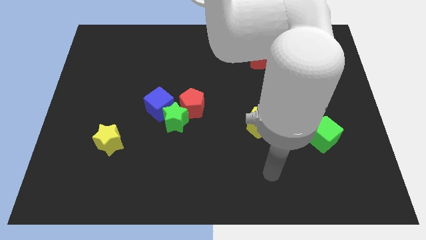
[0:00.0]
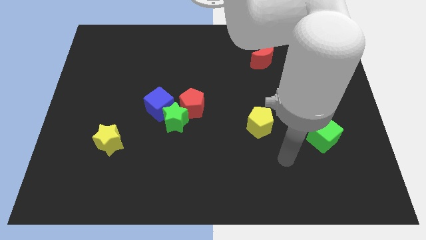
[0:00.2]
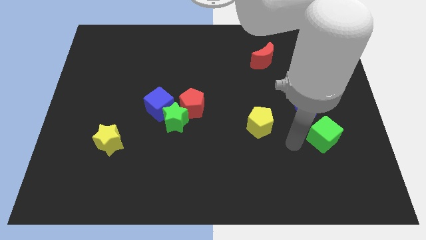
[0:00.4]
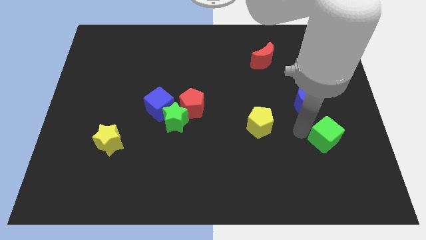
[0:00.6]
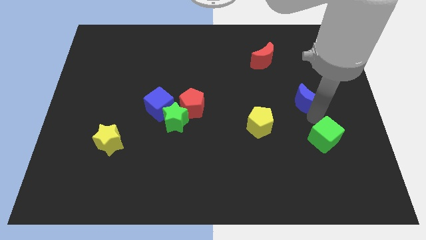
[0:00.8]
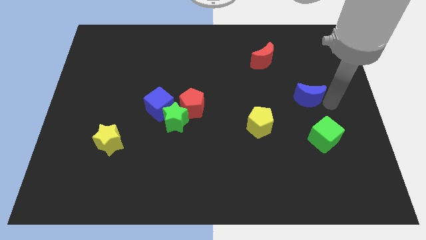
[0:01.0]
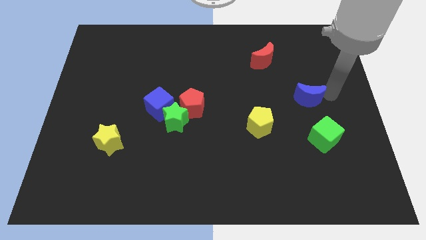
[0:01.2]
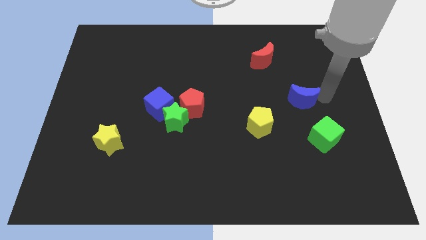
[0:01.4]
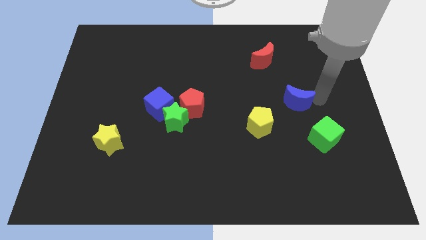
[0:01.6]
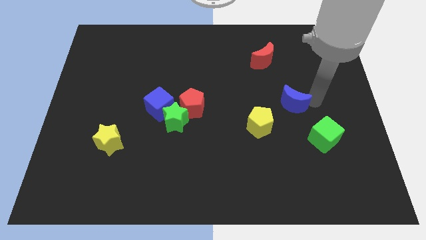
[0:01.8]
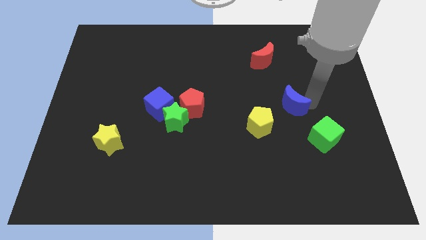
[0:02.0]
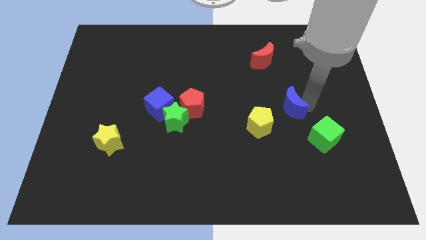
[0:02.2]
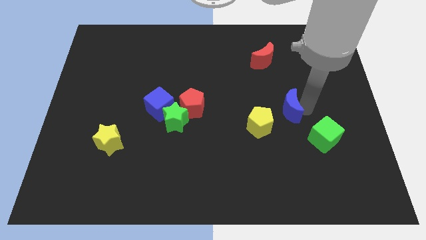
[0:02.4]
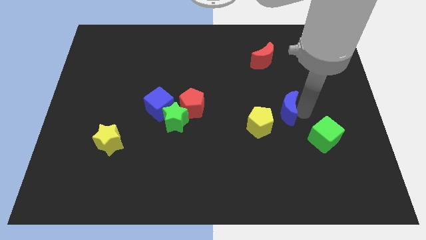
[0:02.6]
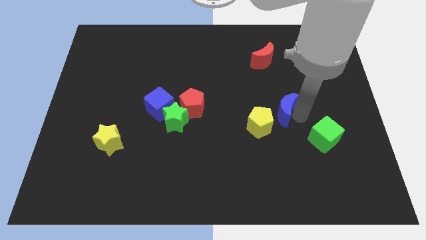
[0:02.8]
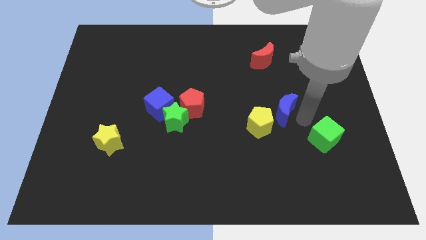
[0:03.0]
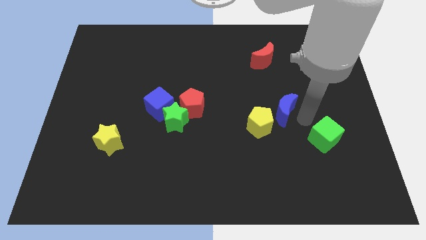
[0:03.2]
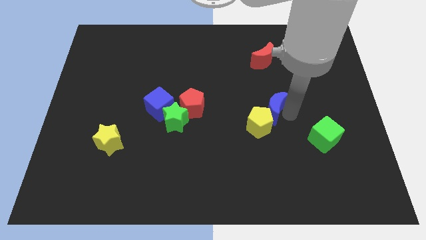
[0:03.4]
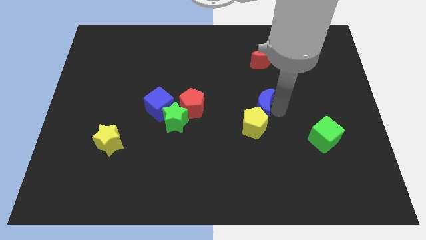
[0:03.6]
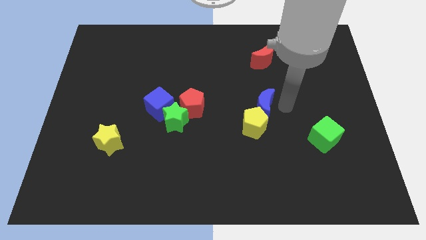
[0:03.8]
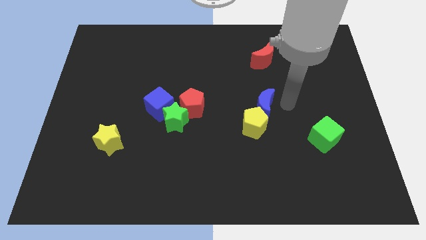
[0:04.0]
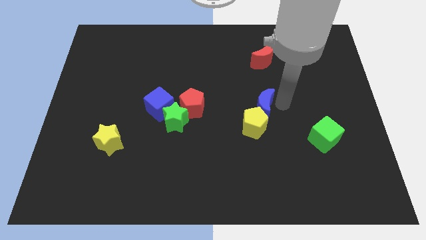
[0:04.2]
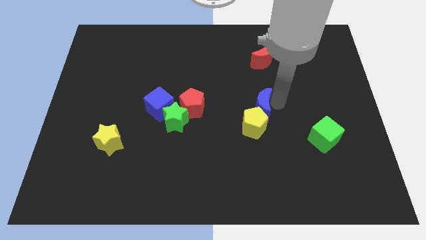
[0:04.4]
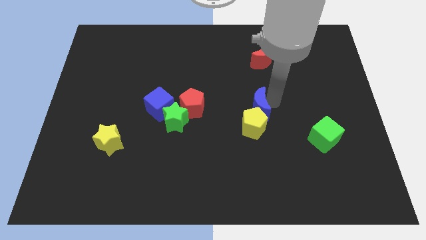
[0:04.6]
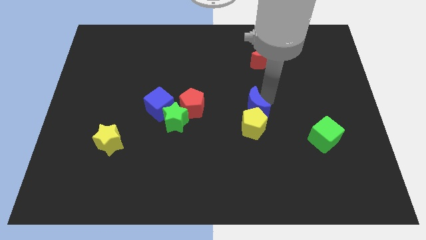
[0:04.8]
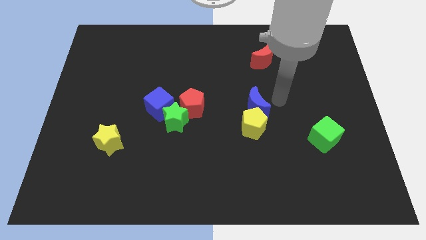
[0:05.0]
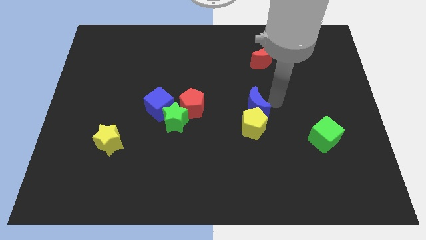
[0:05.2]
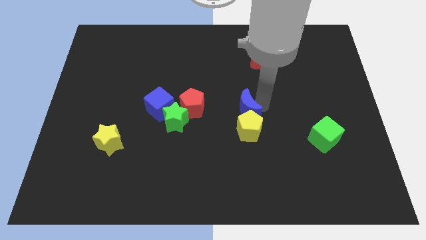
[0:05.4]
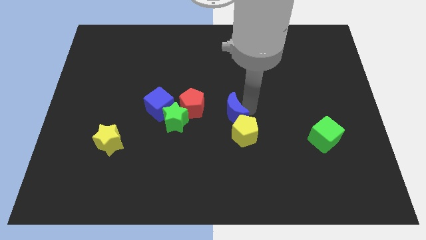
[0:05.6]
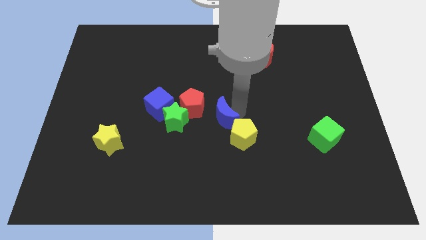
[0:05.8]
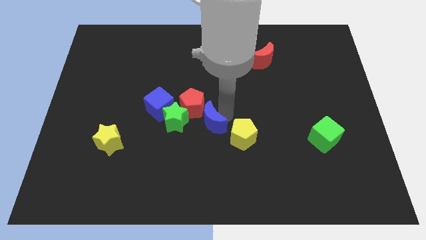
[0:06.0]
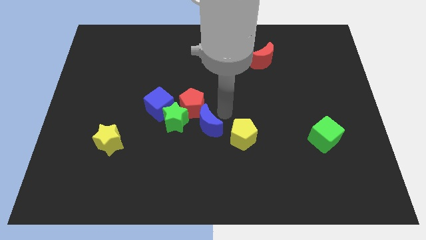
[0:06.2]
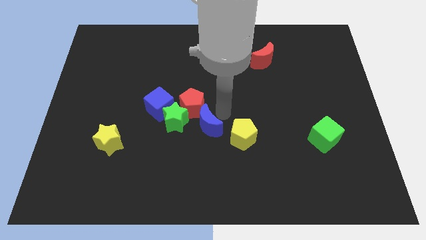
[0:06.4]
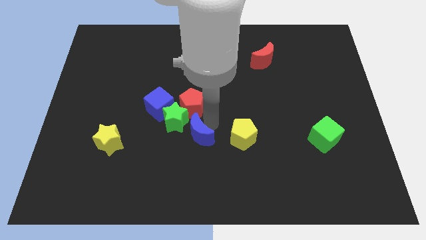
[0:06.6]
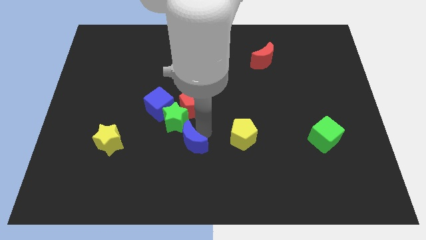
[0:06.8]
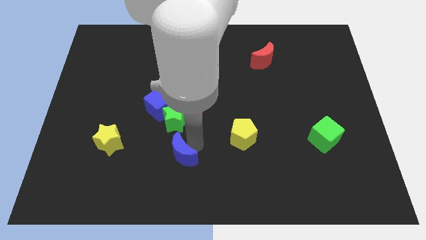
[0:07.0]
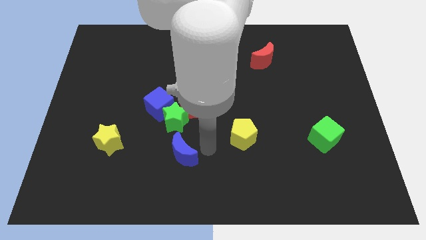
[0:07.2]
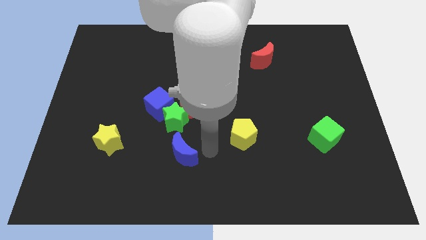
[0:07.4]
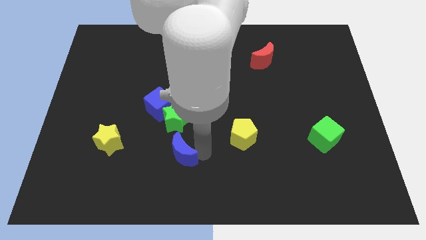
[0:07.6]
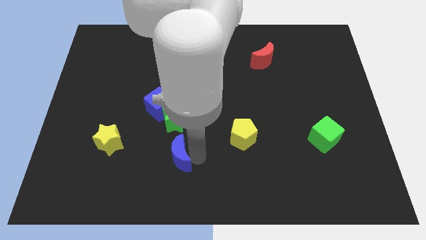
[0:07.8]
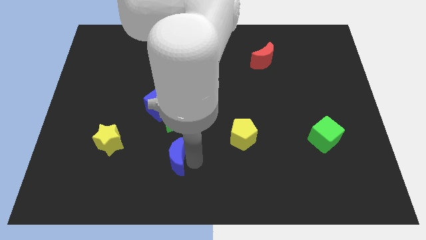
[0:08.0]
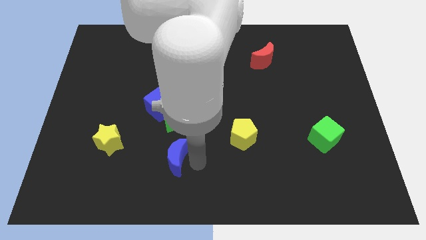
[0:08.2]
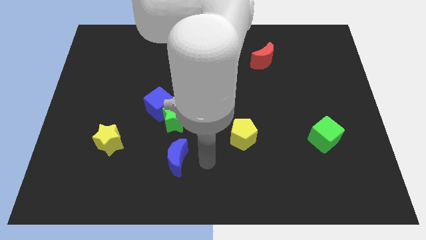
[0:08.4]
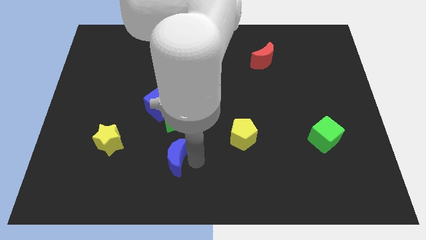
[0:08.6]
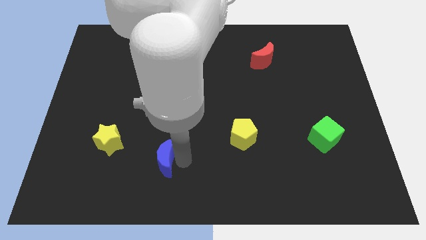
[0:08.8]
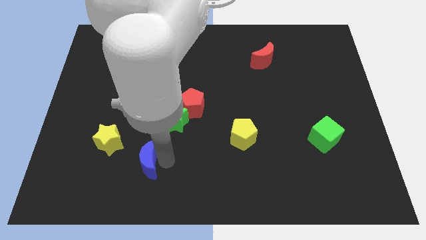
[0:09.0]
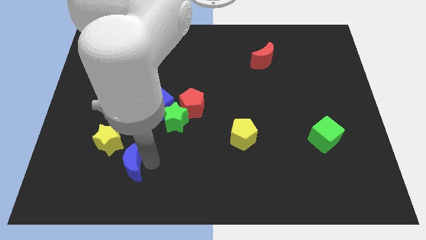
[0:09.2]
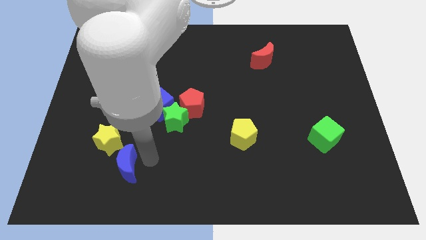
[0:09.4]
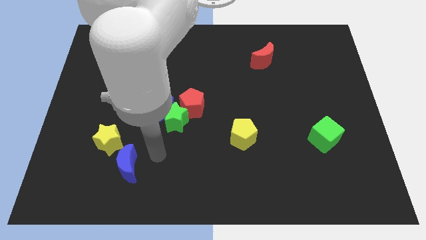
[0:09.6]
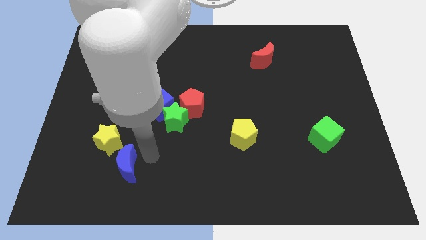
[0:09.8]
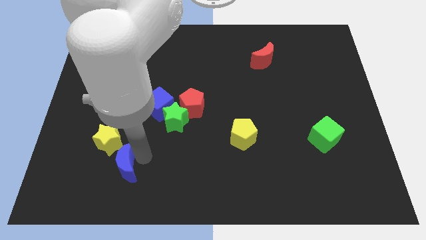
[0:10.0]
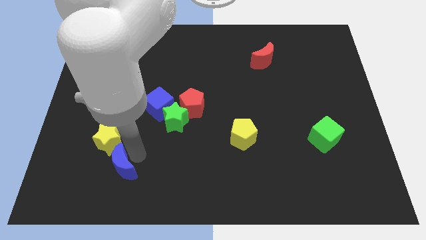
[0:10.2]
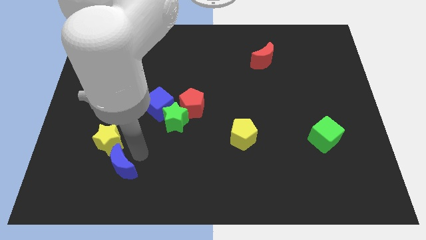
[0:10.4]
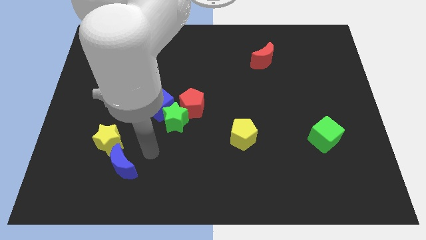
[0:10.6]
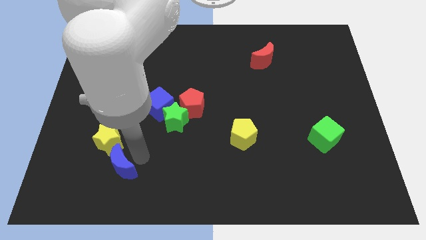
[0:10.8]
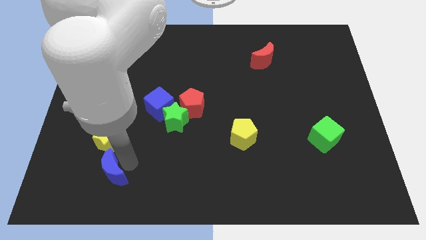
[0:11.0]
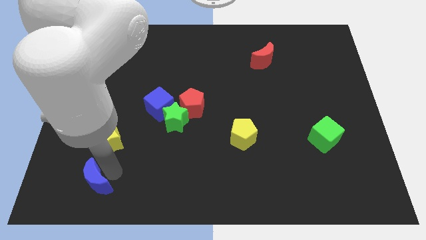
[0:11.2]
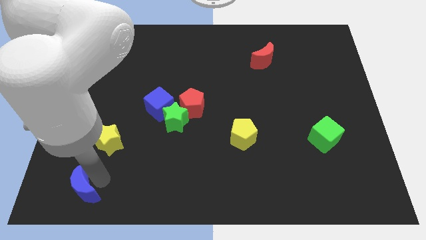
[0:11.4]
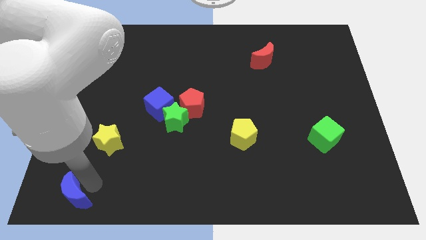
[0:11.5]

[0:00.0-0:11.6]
put the blue moon to the bottom left
